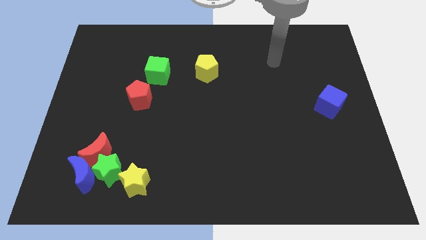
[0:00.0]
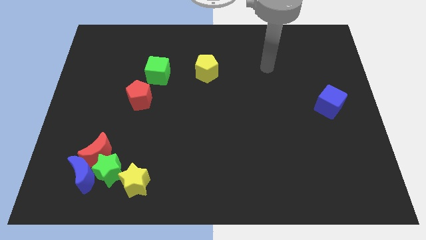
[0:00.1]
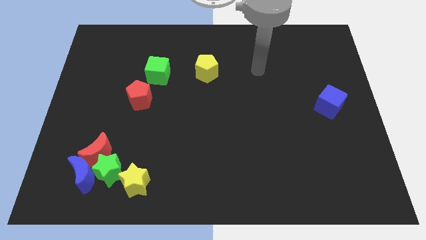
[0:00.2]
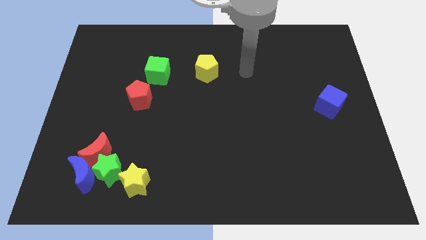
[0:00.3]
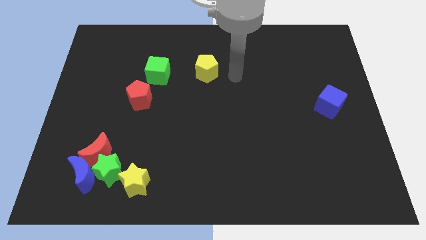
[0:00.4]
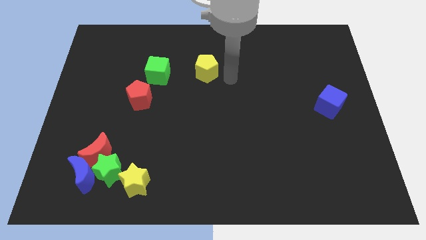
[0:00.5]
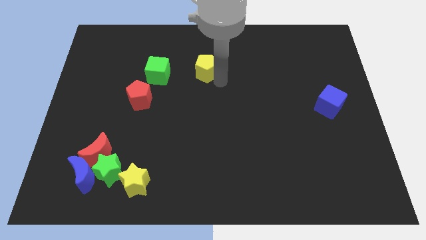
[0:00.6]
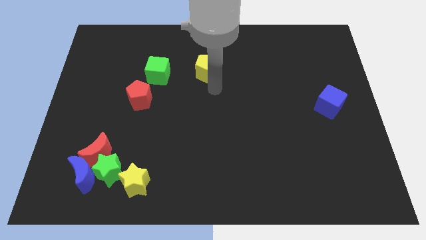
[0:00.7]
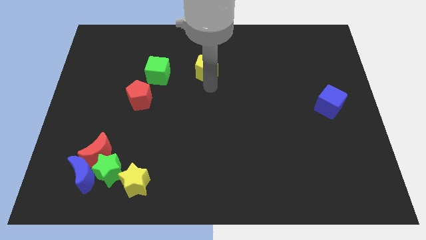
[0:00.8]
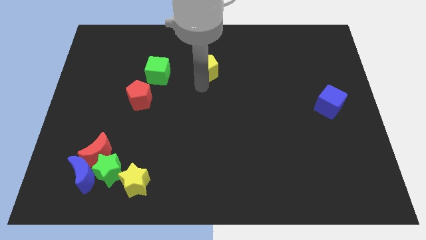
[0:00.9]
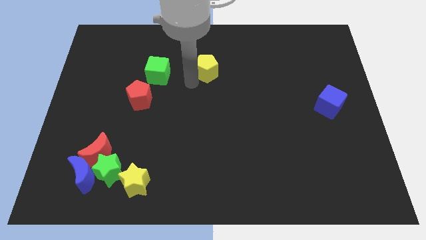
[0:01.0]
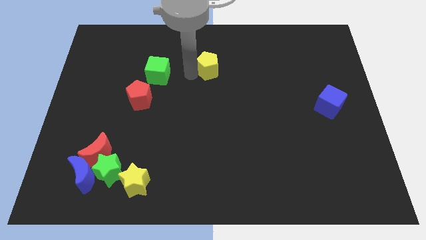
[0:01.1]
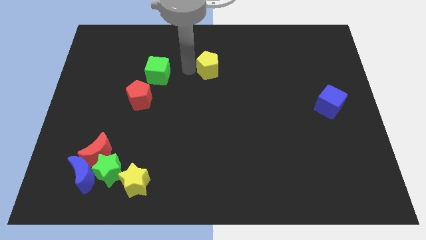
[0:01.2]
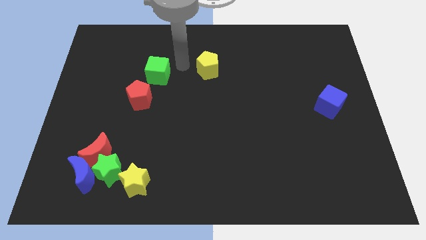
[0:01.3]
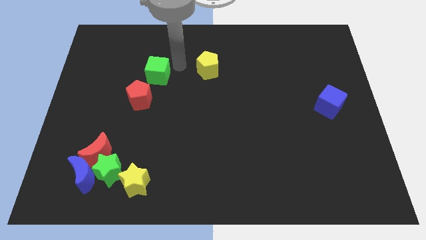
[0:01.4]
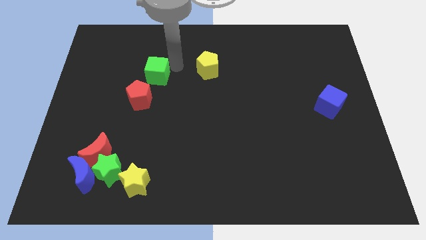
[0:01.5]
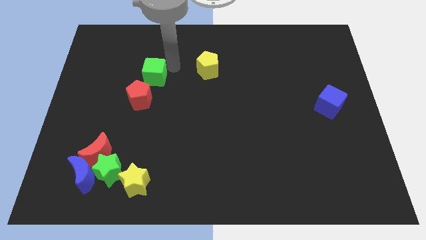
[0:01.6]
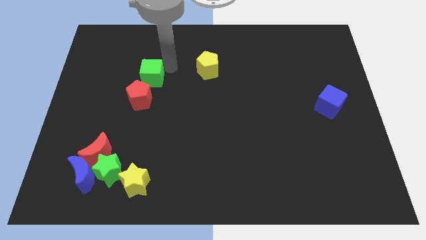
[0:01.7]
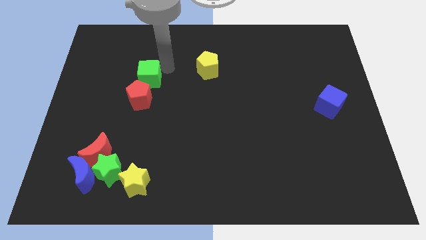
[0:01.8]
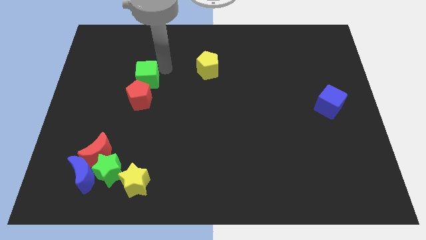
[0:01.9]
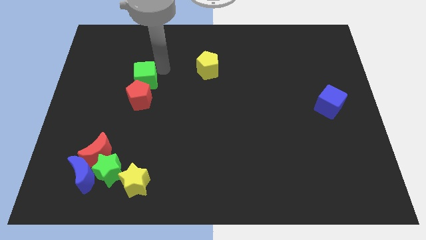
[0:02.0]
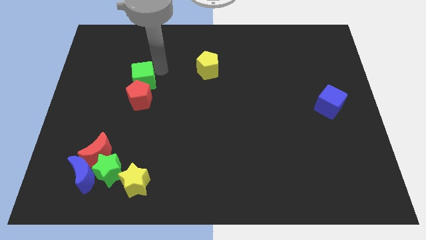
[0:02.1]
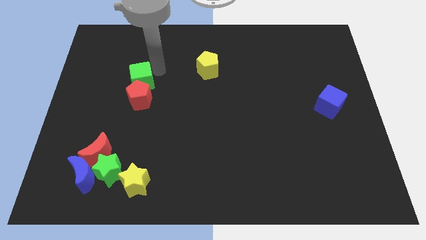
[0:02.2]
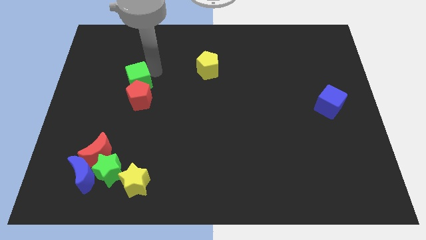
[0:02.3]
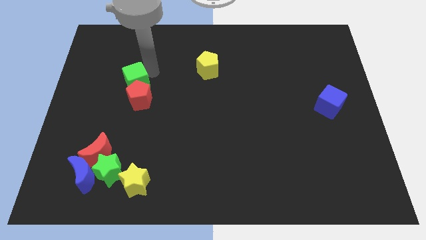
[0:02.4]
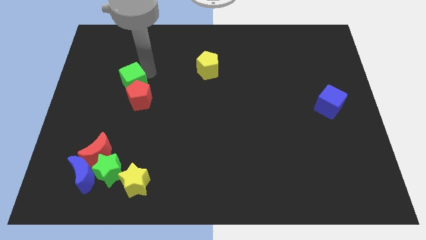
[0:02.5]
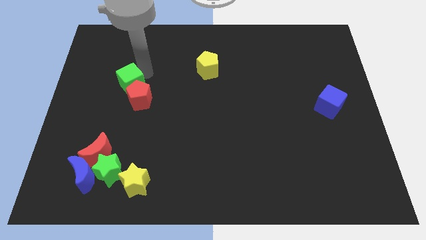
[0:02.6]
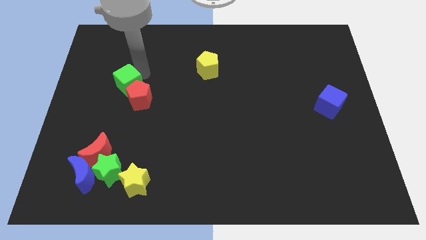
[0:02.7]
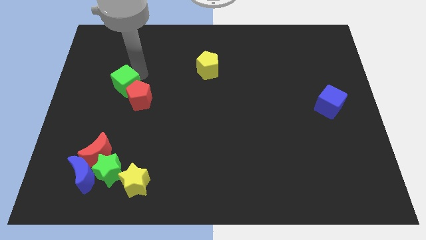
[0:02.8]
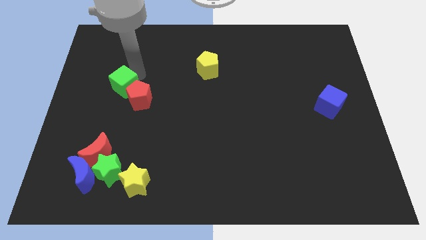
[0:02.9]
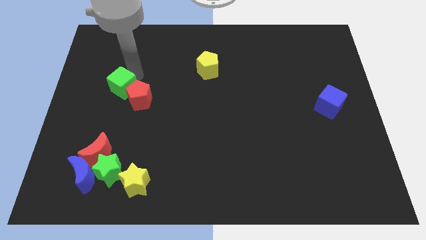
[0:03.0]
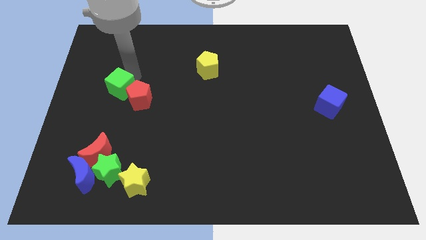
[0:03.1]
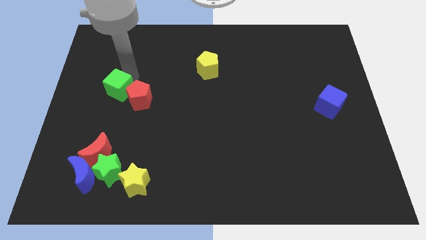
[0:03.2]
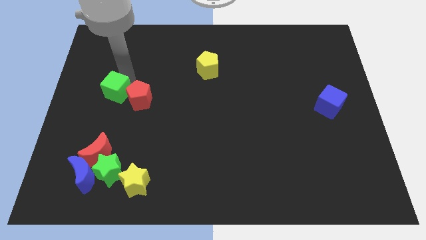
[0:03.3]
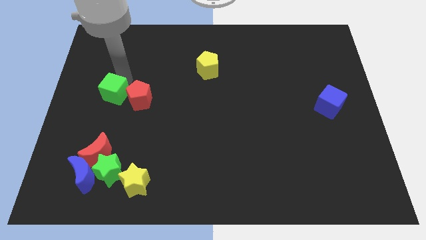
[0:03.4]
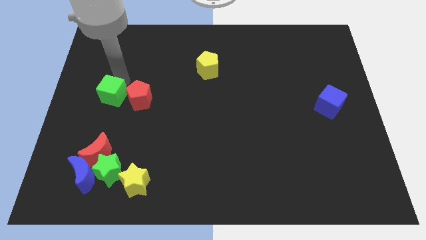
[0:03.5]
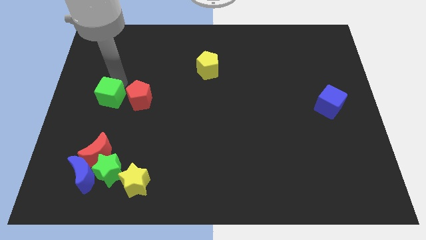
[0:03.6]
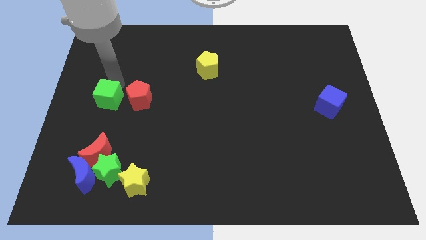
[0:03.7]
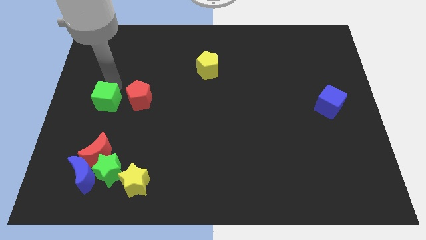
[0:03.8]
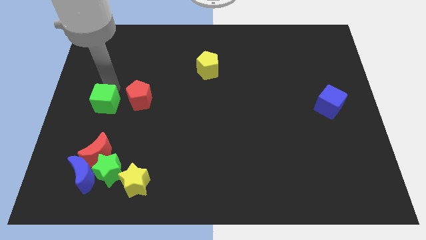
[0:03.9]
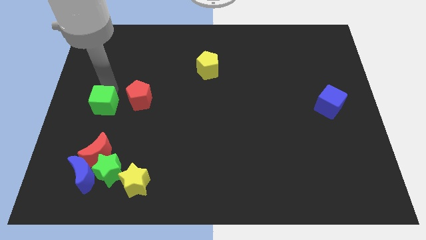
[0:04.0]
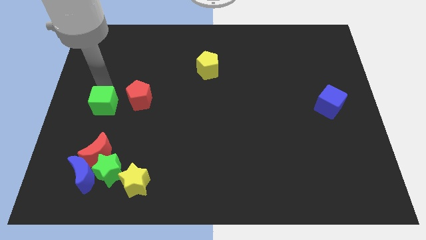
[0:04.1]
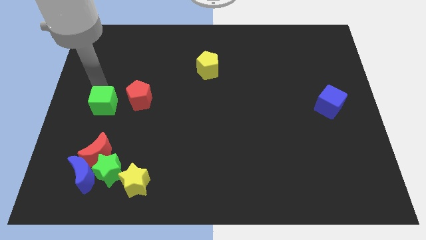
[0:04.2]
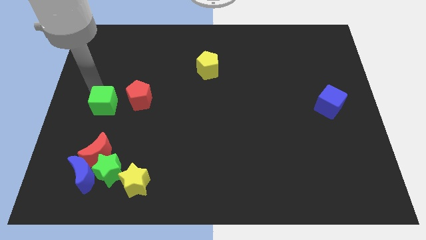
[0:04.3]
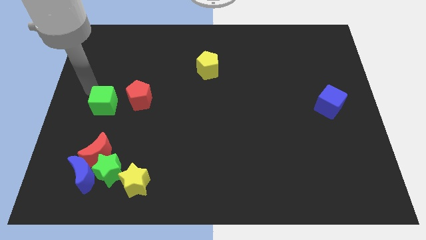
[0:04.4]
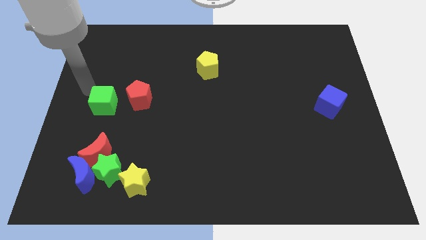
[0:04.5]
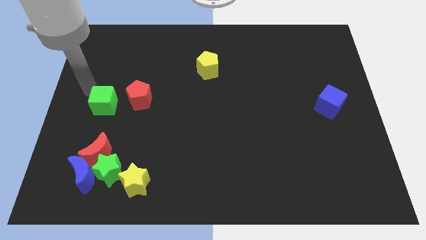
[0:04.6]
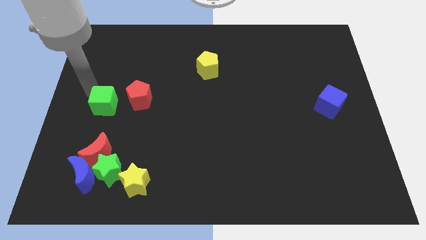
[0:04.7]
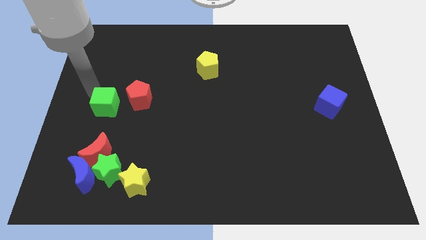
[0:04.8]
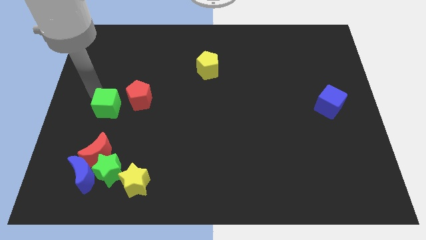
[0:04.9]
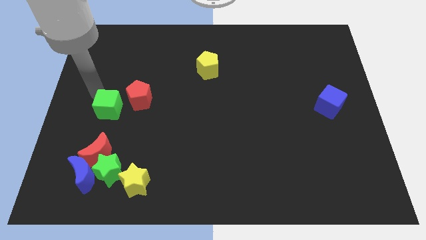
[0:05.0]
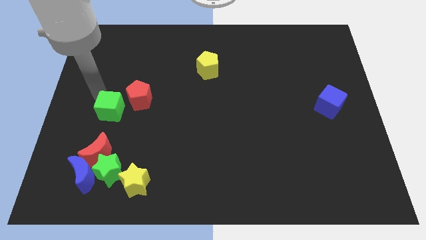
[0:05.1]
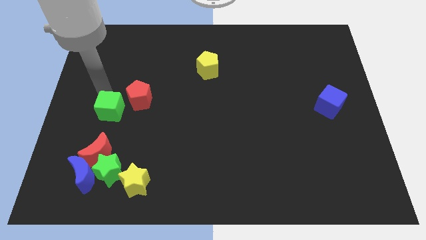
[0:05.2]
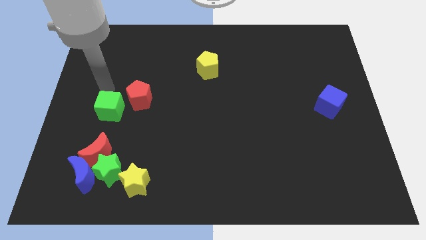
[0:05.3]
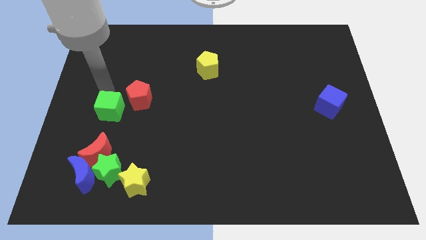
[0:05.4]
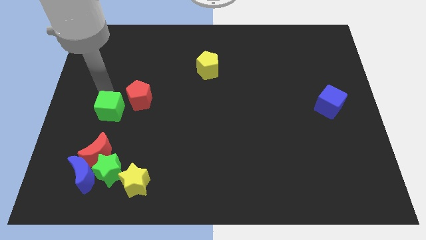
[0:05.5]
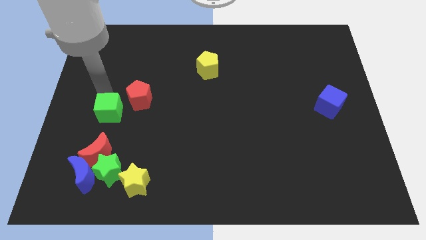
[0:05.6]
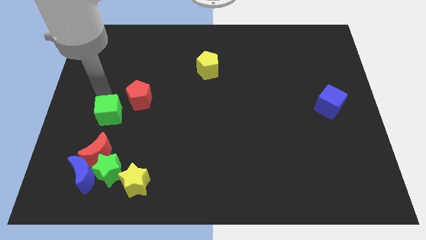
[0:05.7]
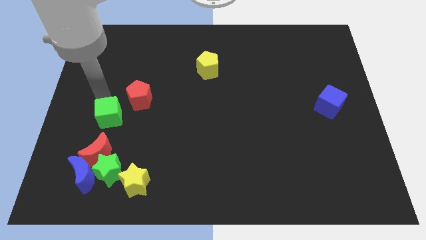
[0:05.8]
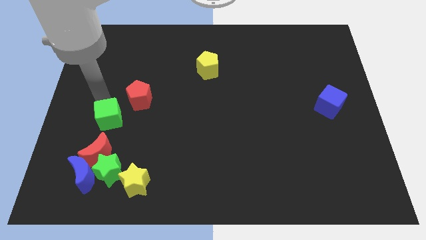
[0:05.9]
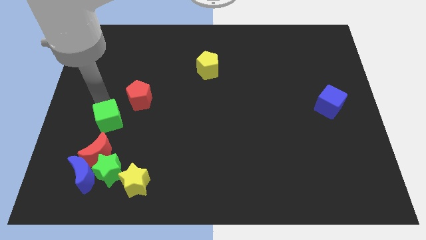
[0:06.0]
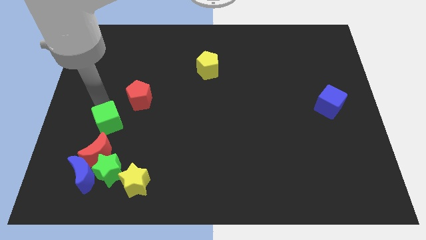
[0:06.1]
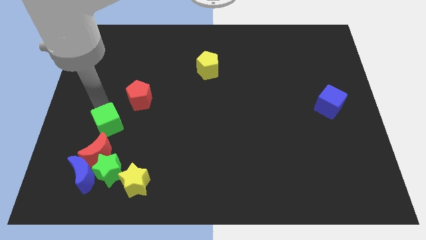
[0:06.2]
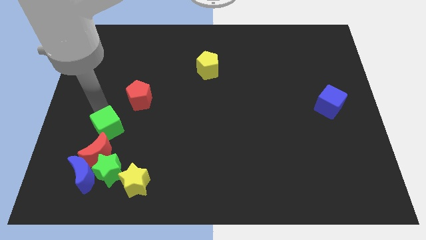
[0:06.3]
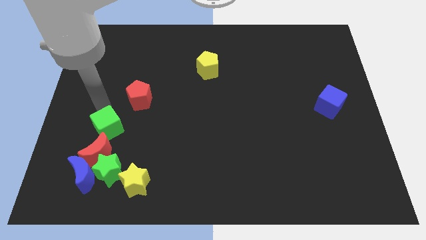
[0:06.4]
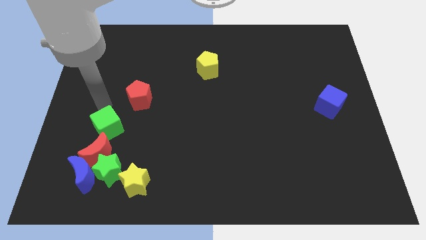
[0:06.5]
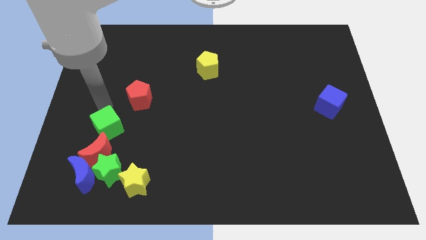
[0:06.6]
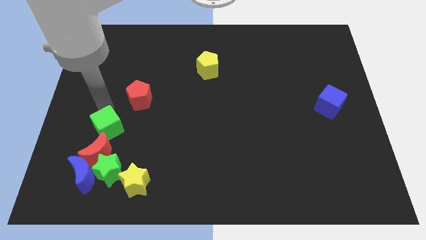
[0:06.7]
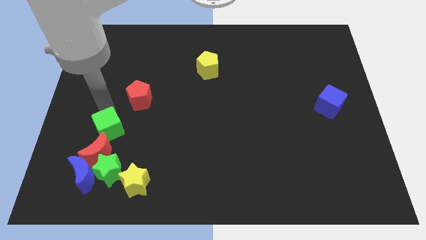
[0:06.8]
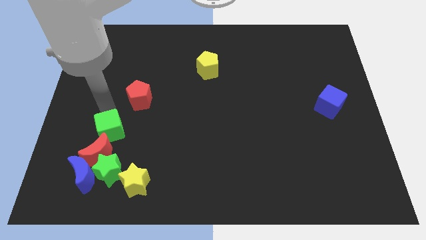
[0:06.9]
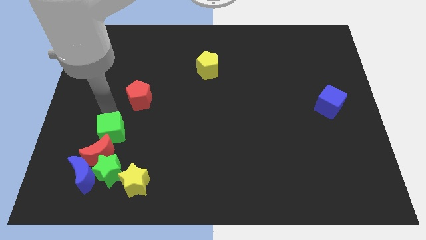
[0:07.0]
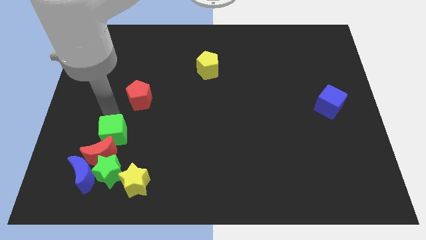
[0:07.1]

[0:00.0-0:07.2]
push the green cube to the top right side of the blue moon
